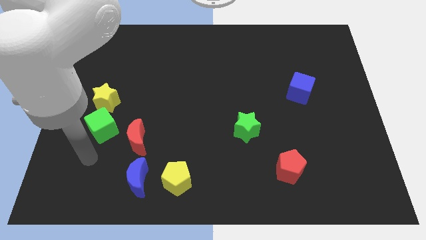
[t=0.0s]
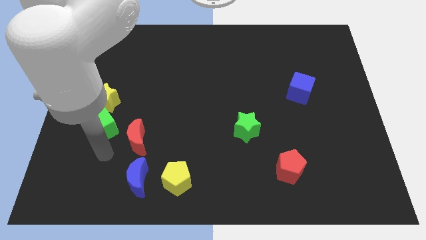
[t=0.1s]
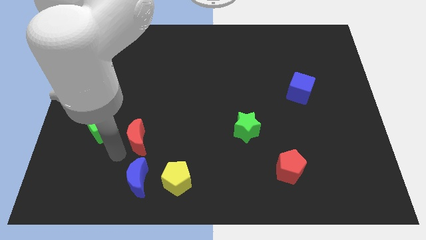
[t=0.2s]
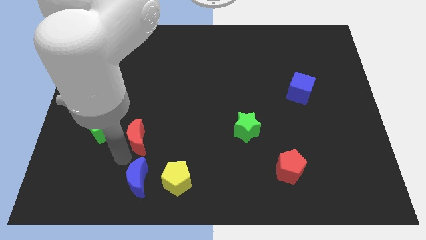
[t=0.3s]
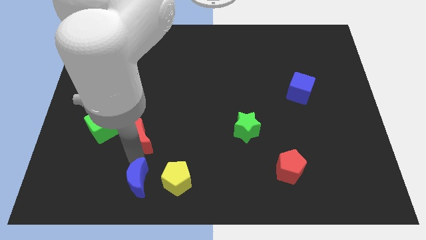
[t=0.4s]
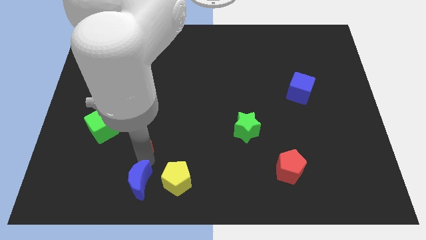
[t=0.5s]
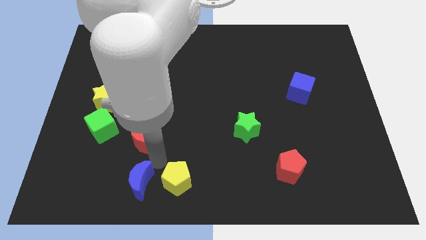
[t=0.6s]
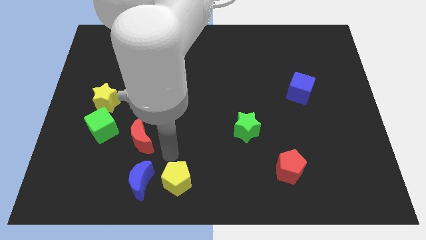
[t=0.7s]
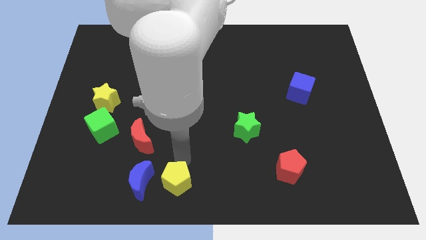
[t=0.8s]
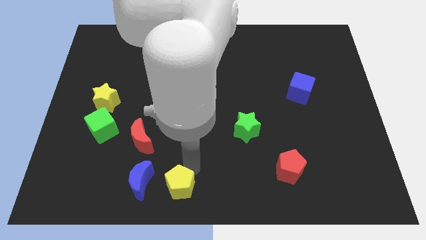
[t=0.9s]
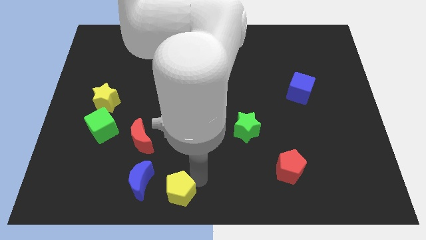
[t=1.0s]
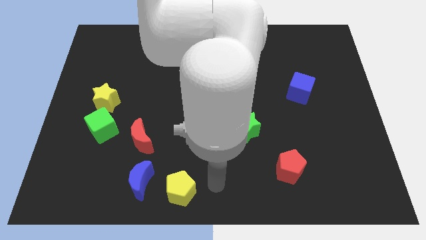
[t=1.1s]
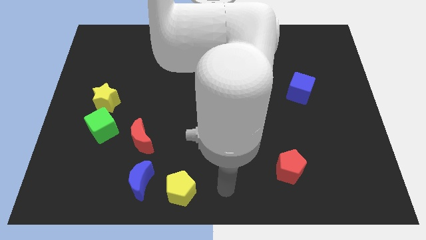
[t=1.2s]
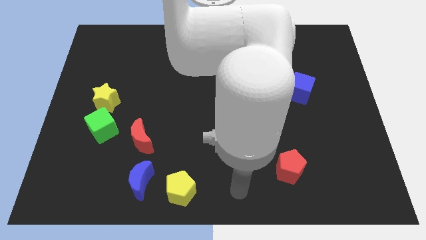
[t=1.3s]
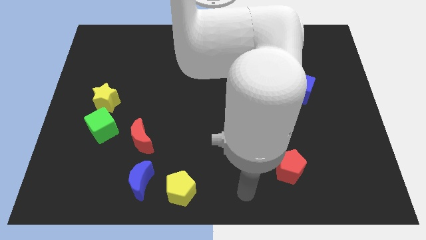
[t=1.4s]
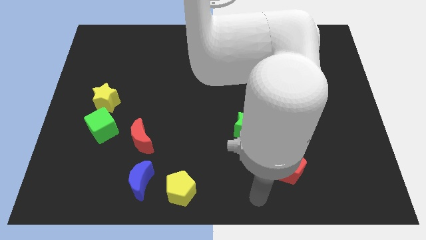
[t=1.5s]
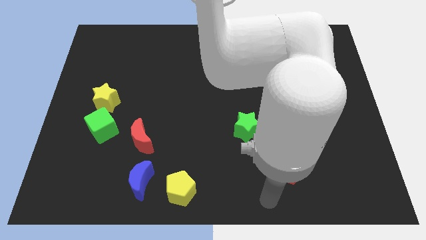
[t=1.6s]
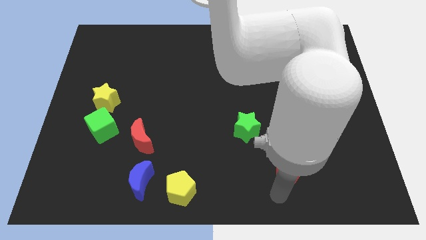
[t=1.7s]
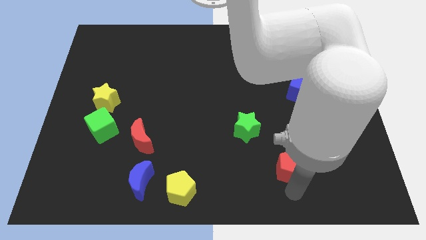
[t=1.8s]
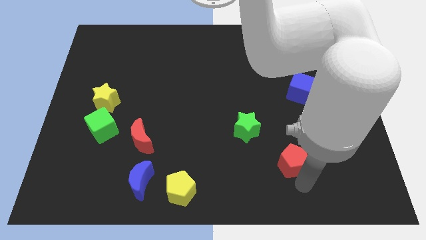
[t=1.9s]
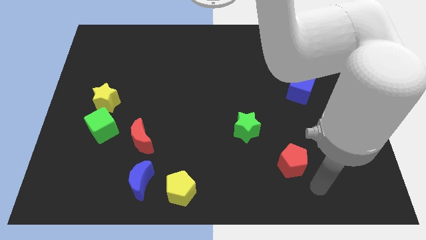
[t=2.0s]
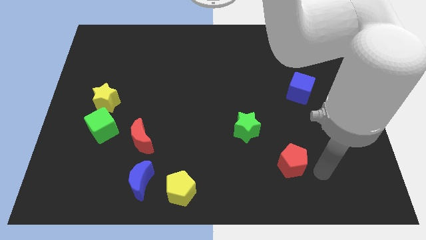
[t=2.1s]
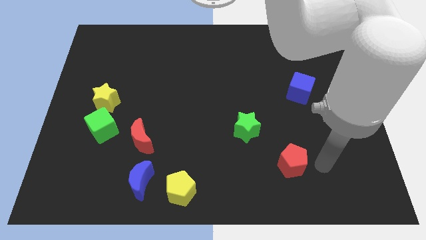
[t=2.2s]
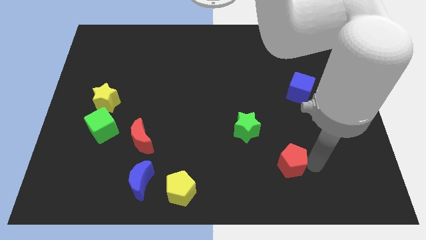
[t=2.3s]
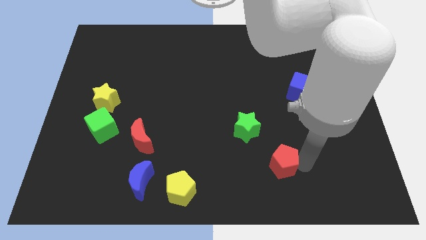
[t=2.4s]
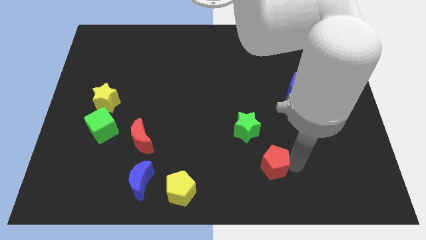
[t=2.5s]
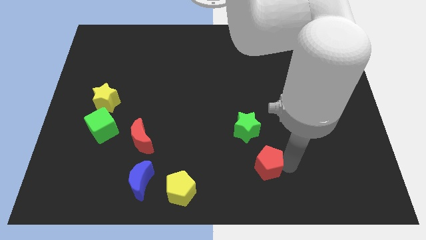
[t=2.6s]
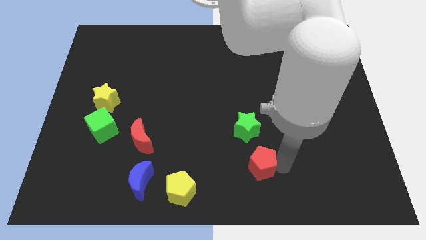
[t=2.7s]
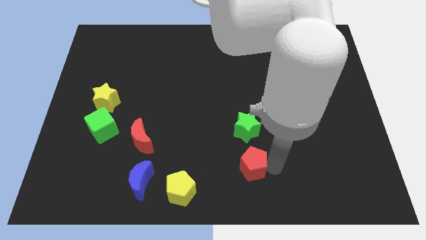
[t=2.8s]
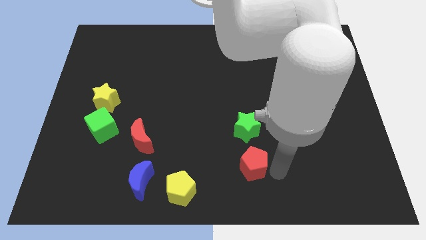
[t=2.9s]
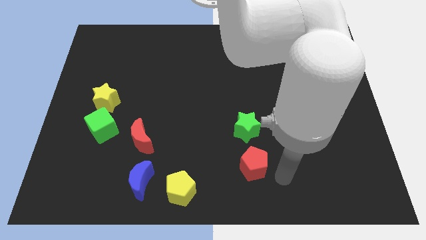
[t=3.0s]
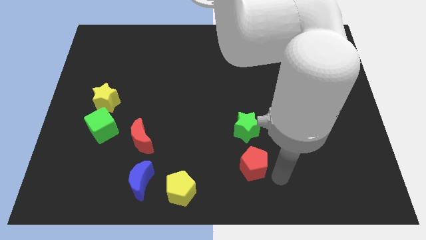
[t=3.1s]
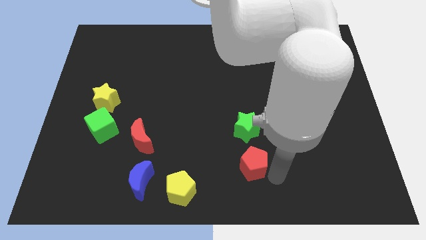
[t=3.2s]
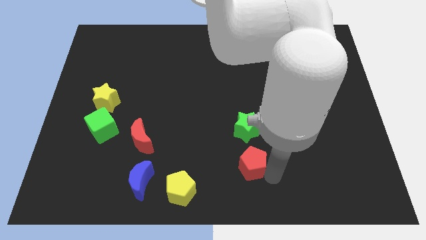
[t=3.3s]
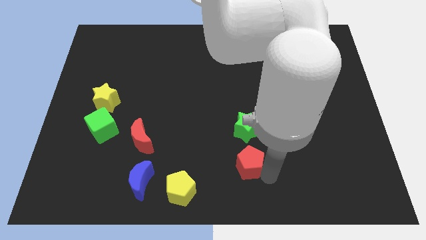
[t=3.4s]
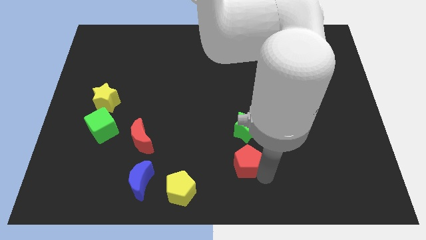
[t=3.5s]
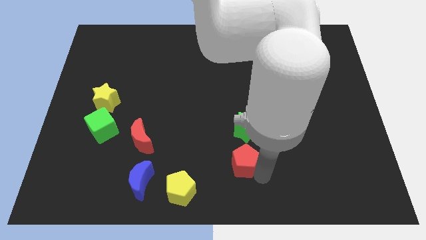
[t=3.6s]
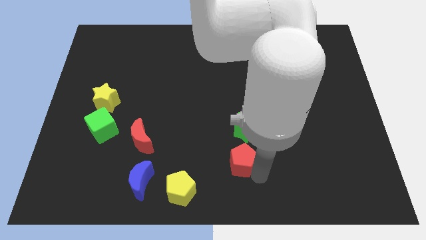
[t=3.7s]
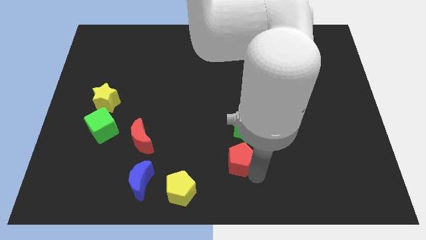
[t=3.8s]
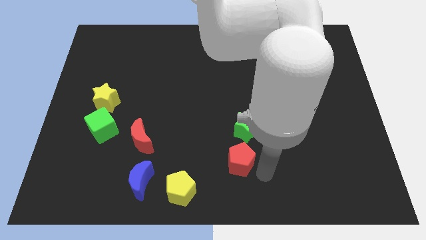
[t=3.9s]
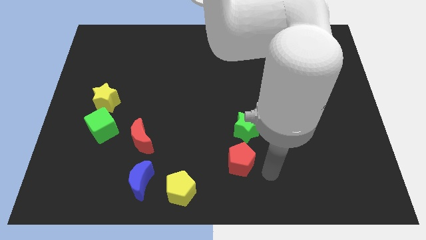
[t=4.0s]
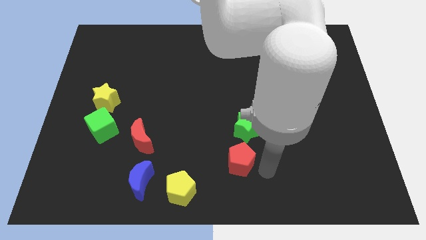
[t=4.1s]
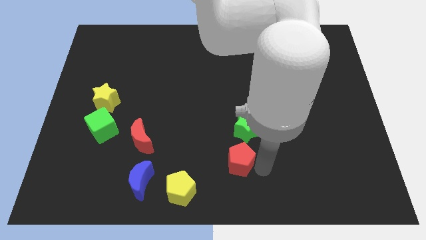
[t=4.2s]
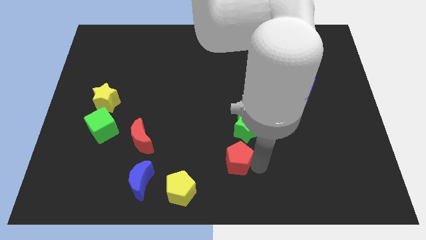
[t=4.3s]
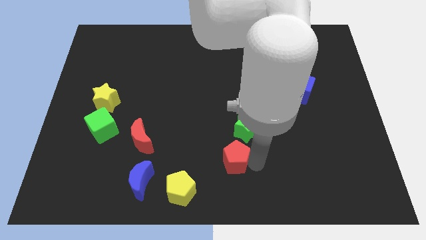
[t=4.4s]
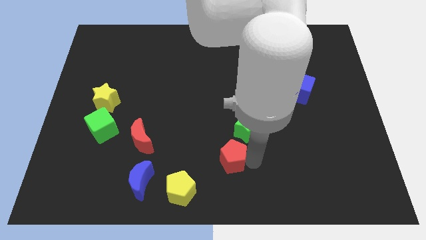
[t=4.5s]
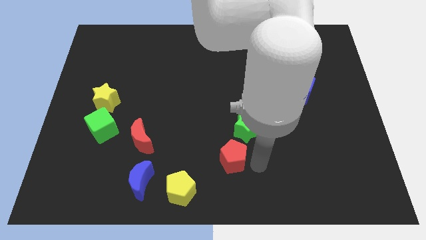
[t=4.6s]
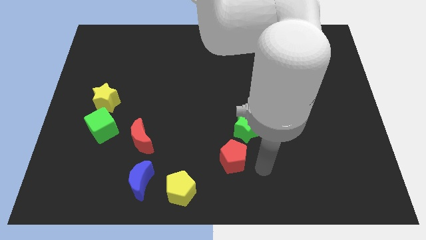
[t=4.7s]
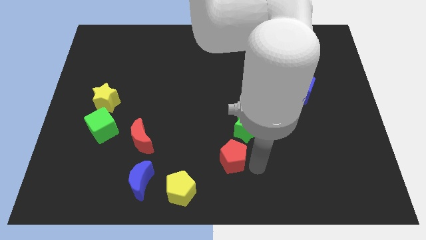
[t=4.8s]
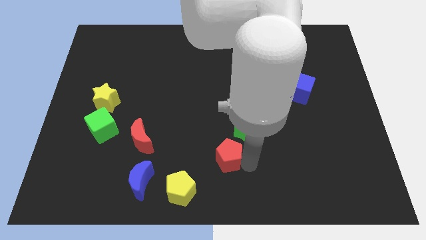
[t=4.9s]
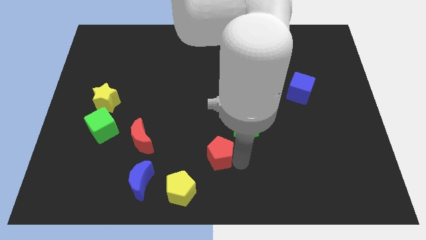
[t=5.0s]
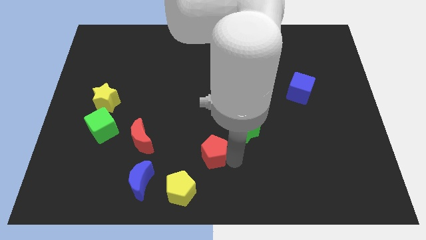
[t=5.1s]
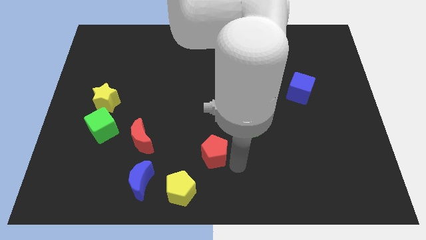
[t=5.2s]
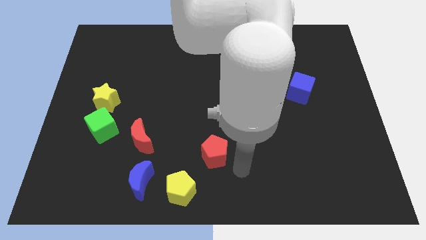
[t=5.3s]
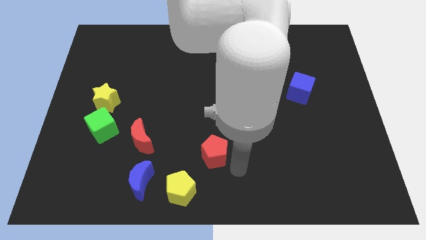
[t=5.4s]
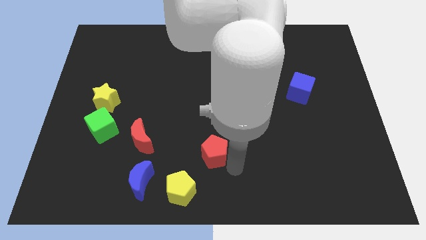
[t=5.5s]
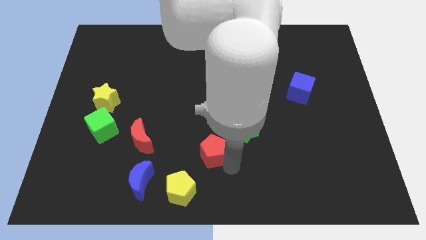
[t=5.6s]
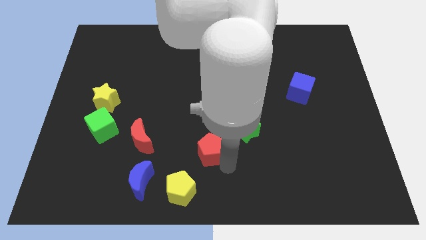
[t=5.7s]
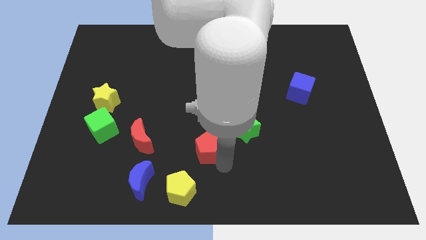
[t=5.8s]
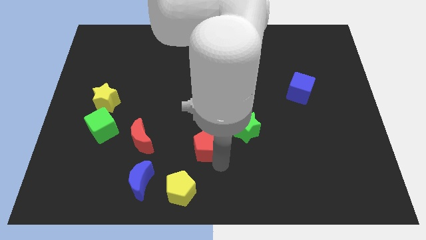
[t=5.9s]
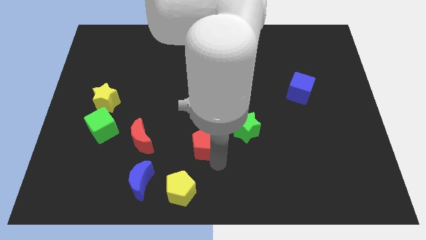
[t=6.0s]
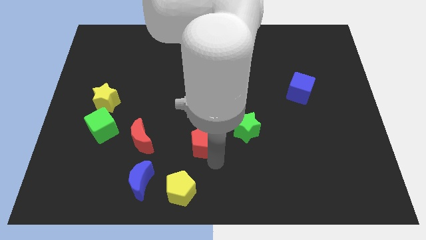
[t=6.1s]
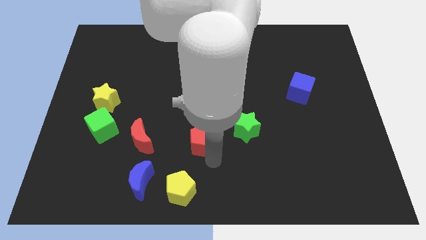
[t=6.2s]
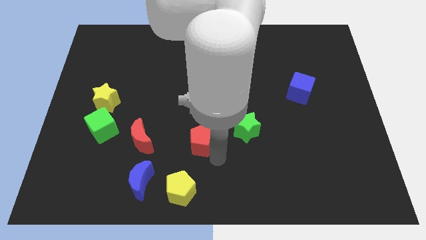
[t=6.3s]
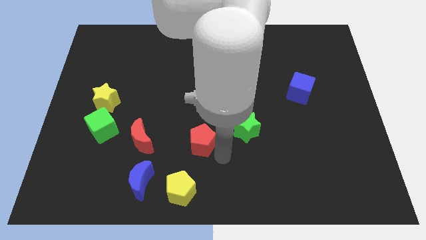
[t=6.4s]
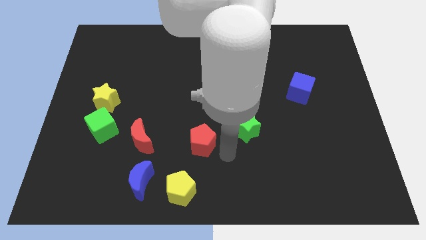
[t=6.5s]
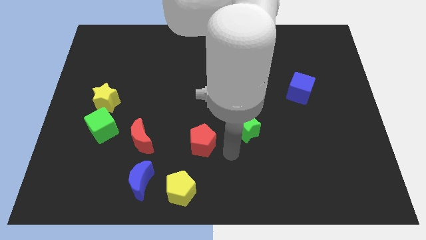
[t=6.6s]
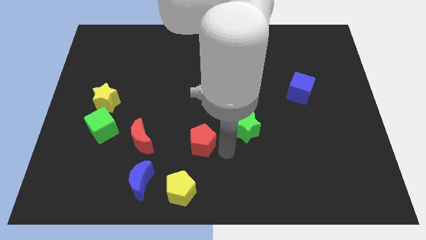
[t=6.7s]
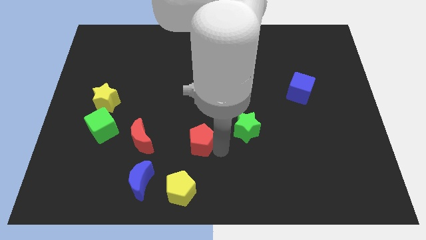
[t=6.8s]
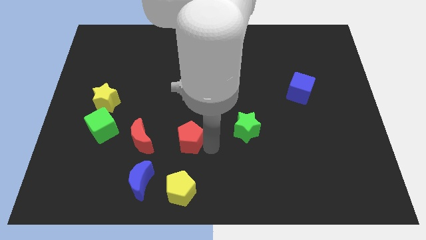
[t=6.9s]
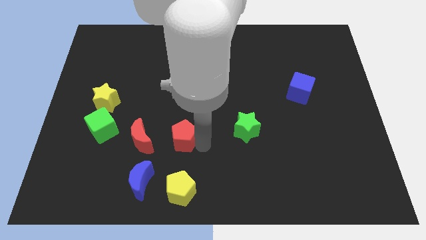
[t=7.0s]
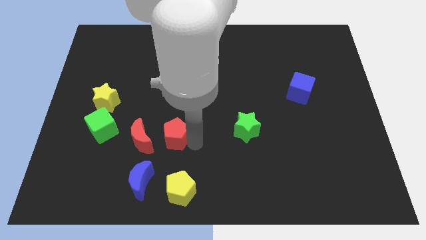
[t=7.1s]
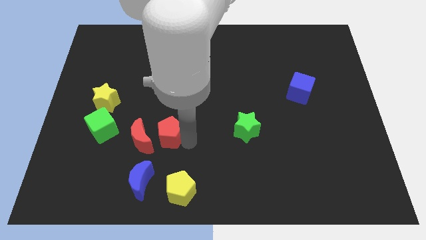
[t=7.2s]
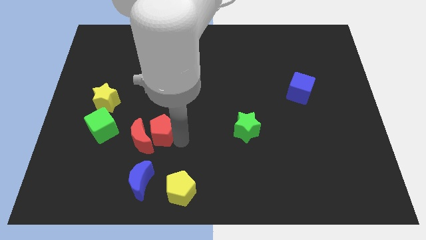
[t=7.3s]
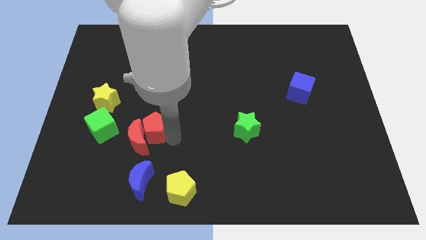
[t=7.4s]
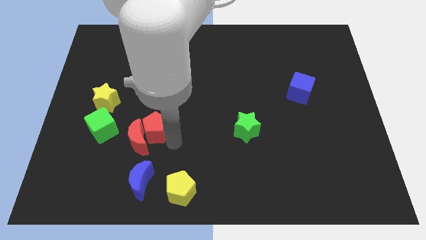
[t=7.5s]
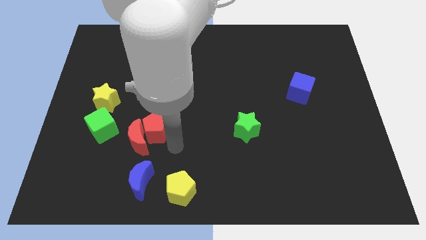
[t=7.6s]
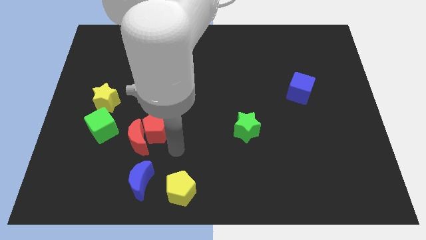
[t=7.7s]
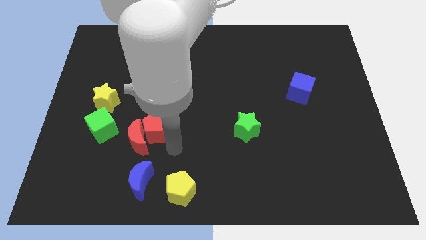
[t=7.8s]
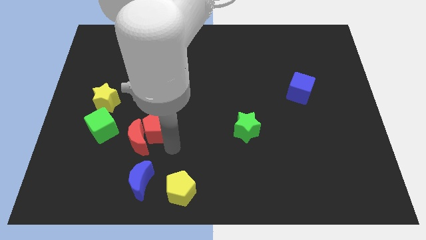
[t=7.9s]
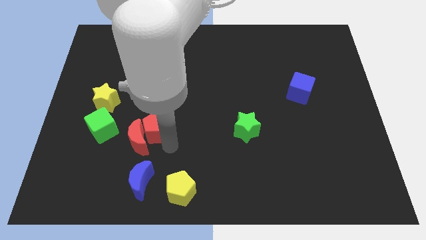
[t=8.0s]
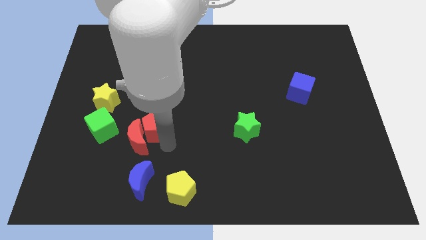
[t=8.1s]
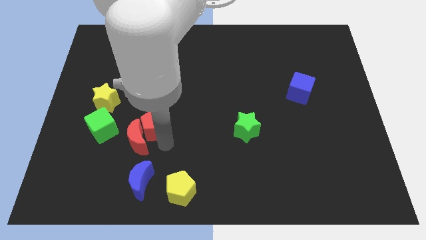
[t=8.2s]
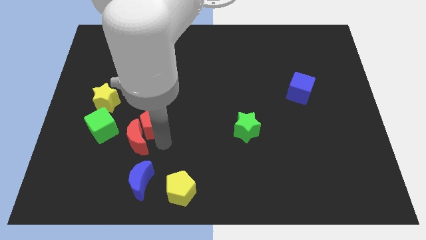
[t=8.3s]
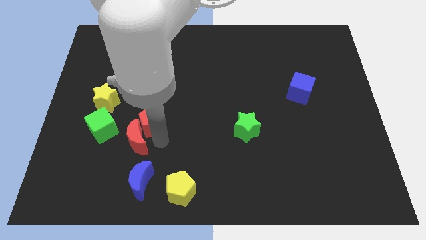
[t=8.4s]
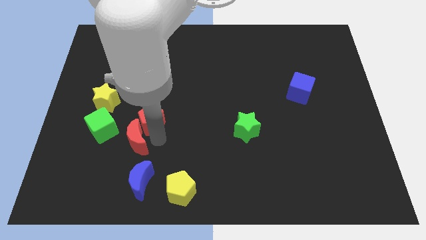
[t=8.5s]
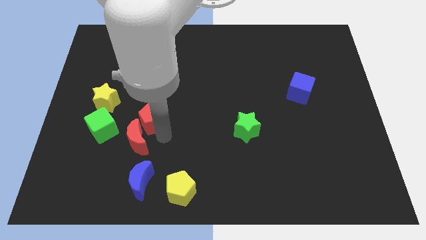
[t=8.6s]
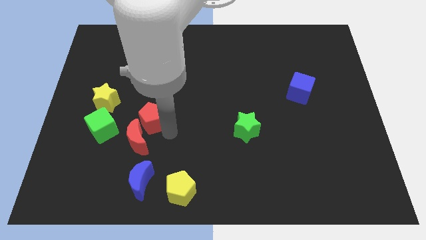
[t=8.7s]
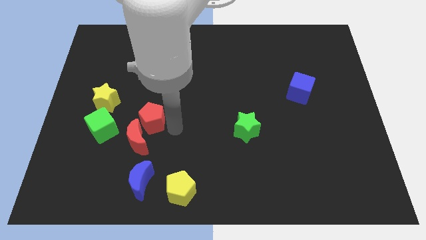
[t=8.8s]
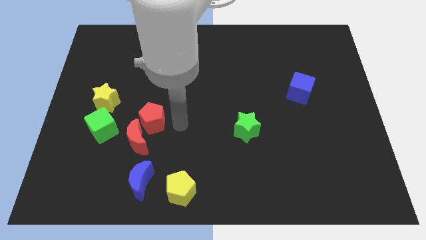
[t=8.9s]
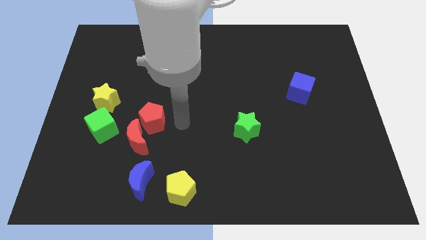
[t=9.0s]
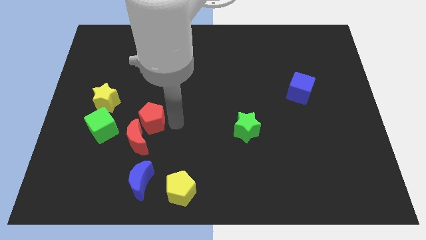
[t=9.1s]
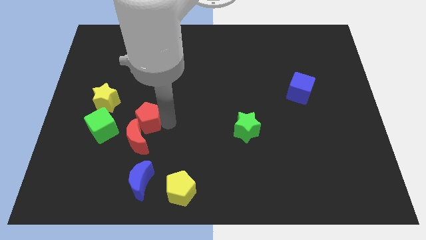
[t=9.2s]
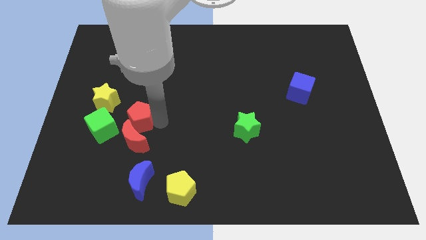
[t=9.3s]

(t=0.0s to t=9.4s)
push the red pentagon diagonally down and to the right of the yellow star
